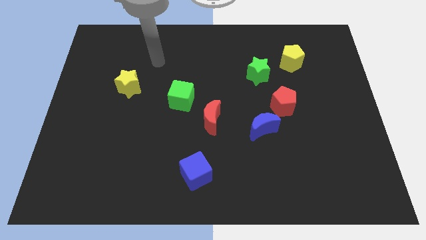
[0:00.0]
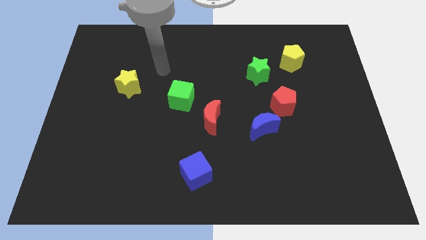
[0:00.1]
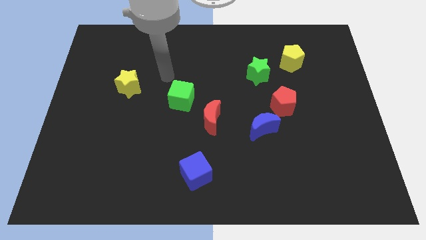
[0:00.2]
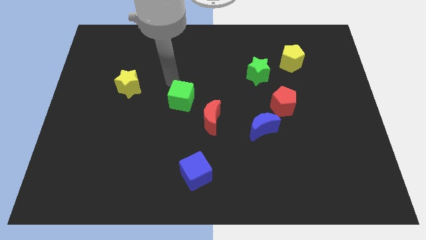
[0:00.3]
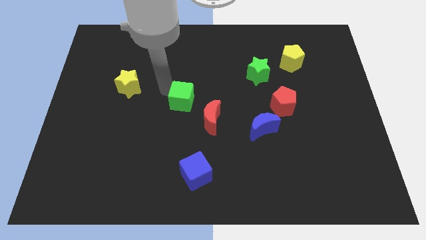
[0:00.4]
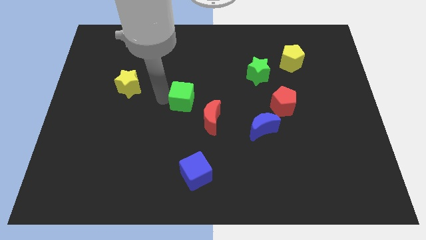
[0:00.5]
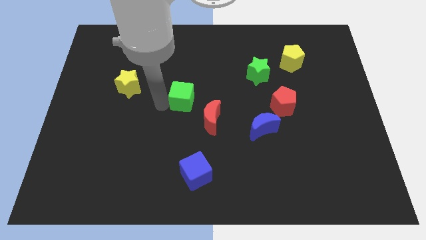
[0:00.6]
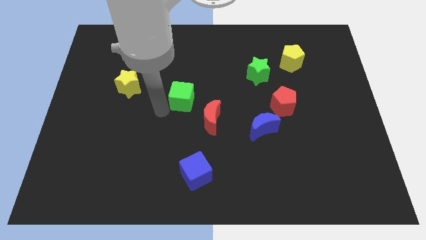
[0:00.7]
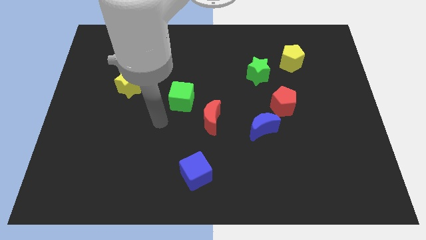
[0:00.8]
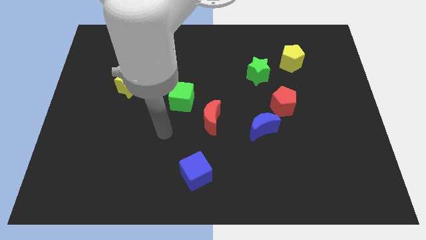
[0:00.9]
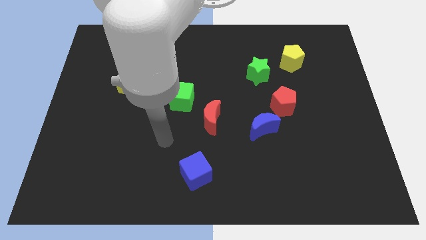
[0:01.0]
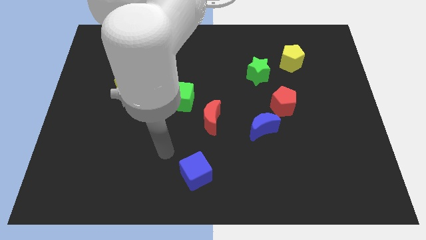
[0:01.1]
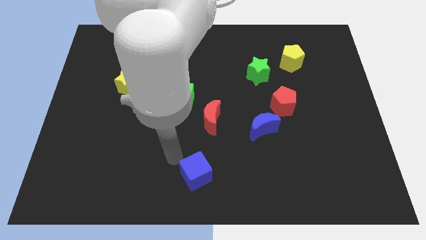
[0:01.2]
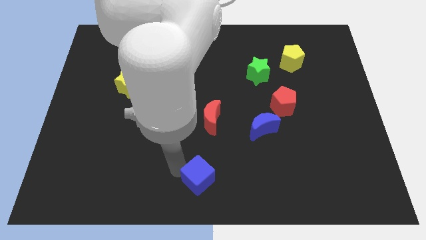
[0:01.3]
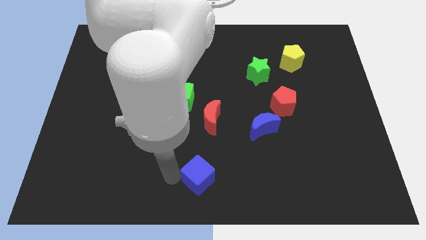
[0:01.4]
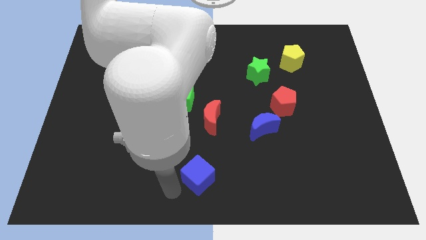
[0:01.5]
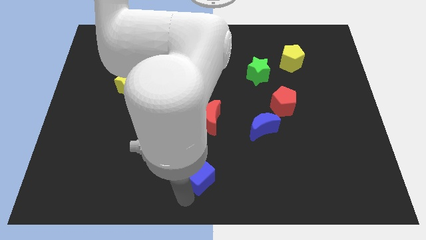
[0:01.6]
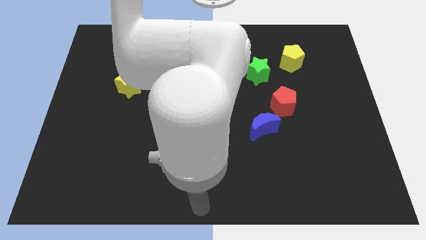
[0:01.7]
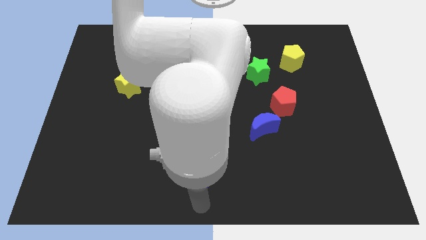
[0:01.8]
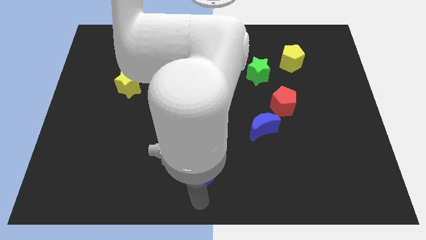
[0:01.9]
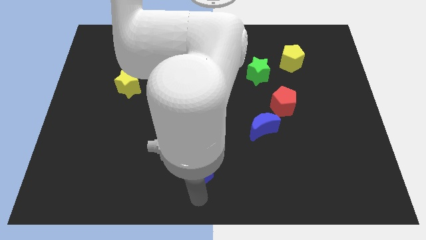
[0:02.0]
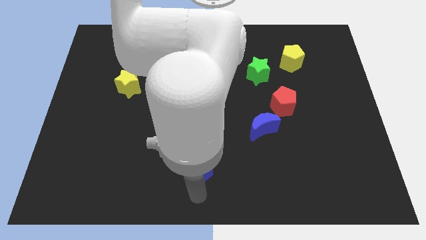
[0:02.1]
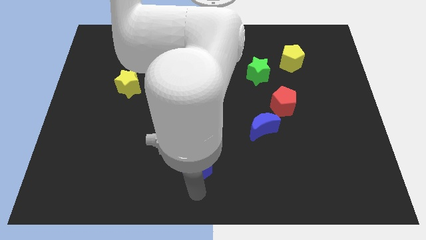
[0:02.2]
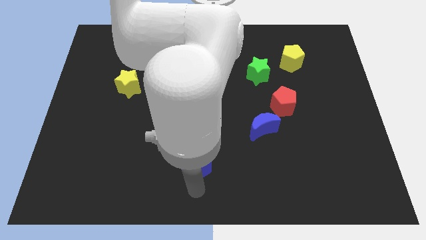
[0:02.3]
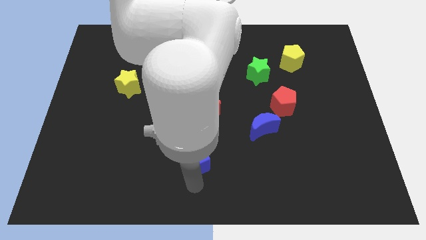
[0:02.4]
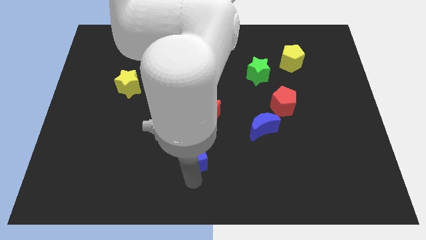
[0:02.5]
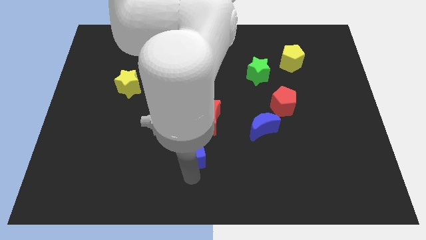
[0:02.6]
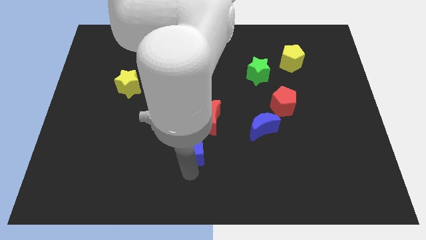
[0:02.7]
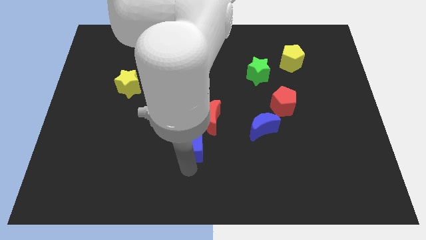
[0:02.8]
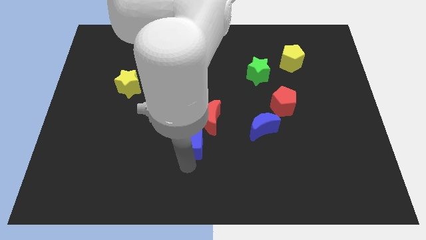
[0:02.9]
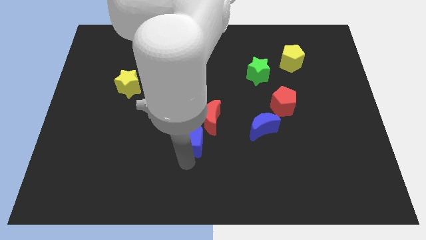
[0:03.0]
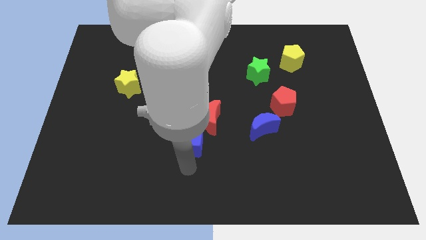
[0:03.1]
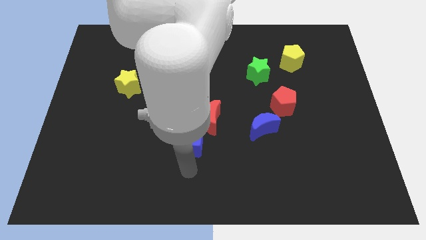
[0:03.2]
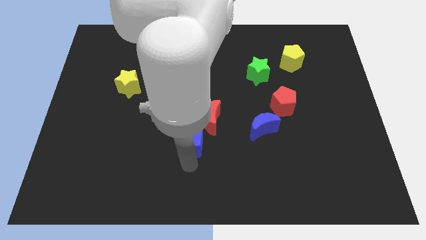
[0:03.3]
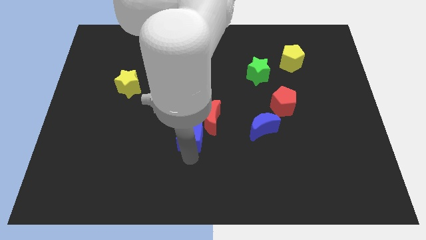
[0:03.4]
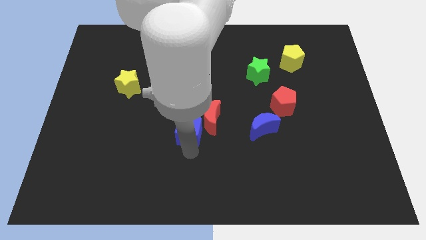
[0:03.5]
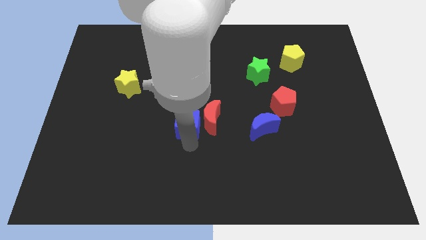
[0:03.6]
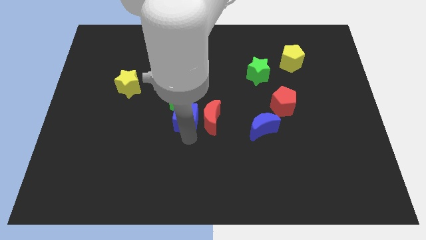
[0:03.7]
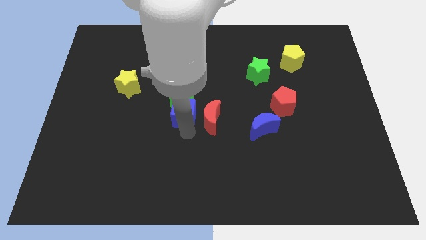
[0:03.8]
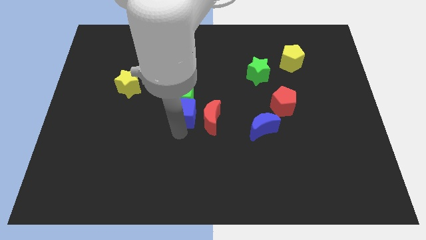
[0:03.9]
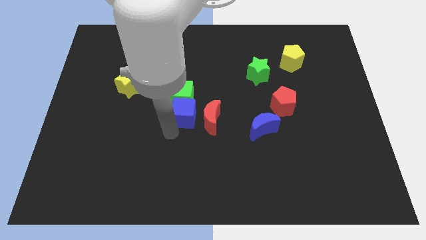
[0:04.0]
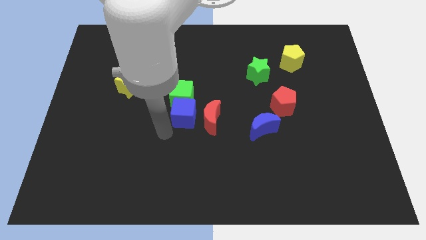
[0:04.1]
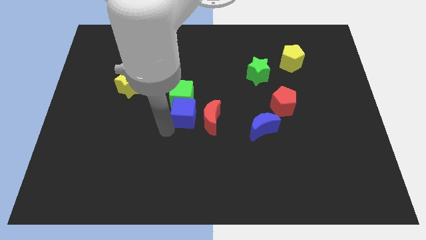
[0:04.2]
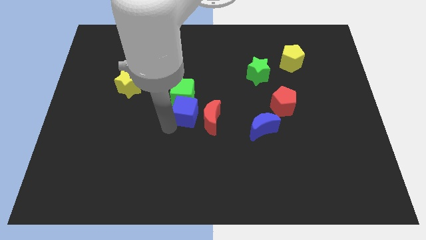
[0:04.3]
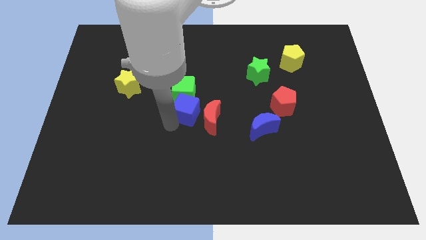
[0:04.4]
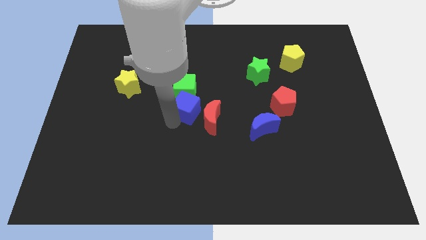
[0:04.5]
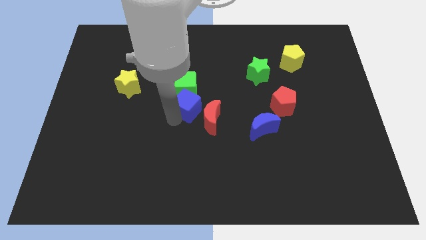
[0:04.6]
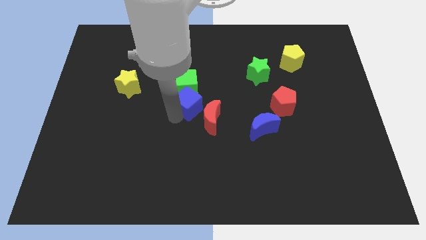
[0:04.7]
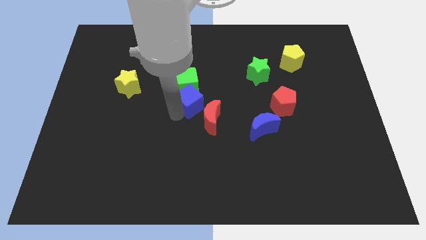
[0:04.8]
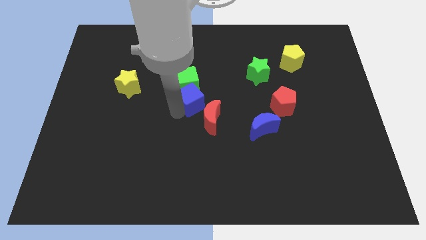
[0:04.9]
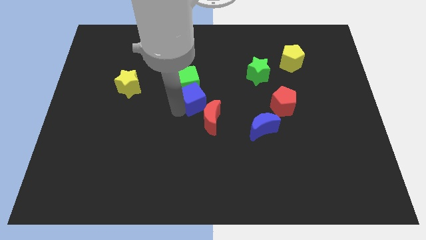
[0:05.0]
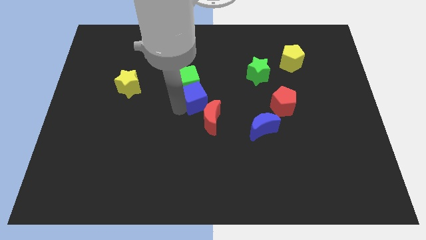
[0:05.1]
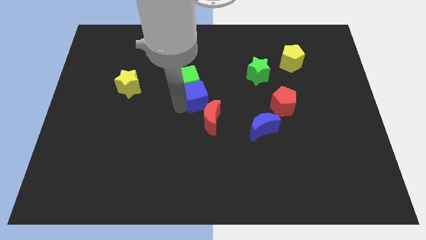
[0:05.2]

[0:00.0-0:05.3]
push the blue cube upwards

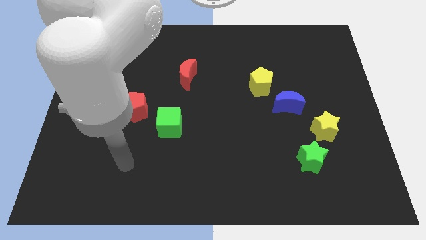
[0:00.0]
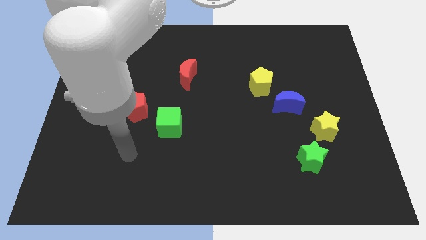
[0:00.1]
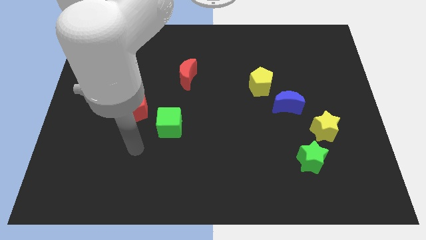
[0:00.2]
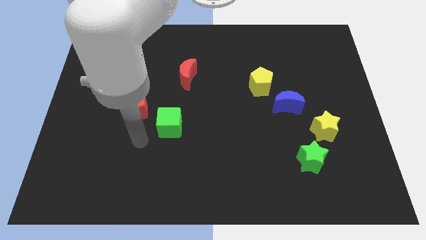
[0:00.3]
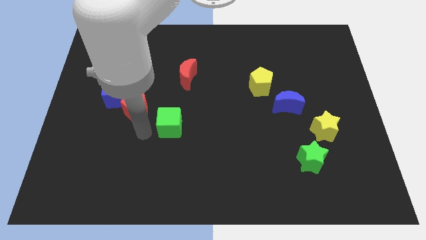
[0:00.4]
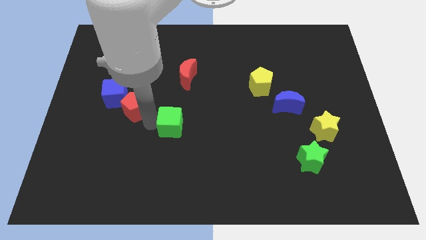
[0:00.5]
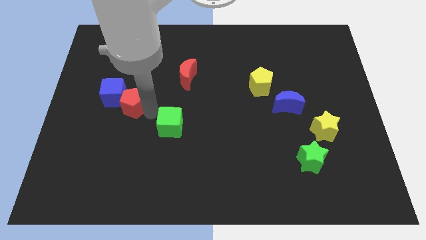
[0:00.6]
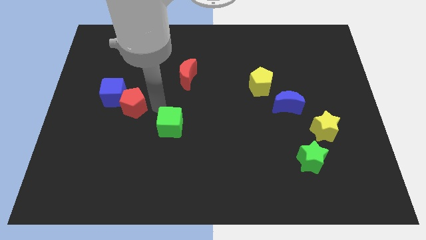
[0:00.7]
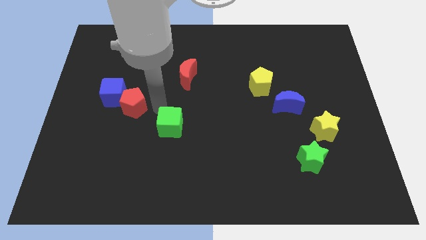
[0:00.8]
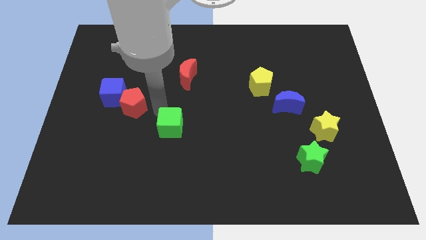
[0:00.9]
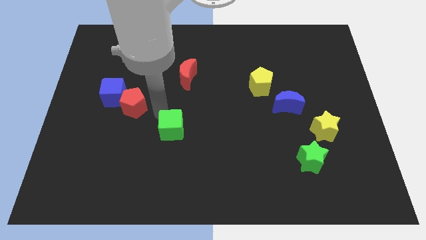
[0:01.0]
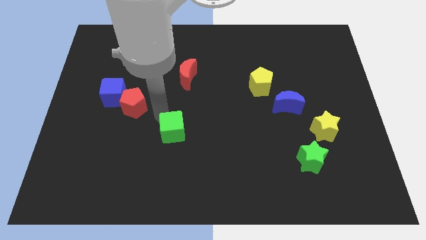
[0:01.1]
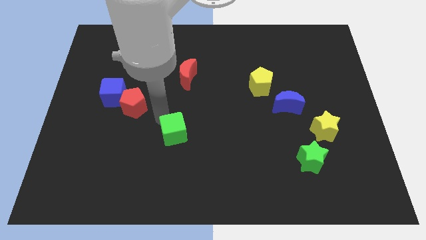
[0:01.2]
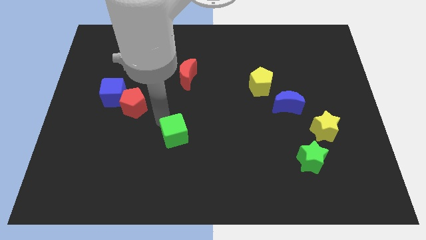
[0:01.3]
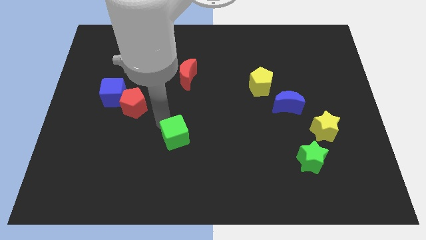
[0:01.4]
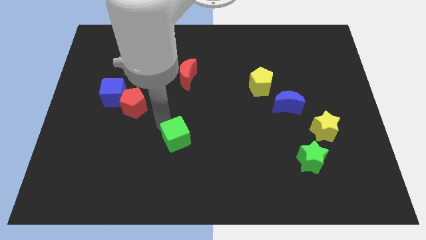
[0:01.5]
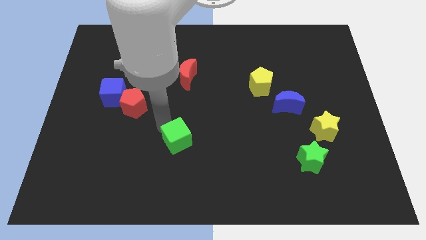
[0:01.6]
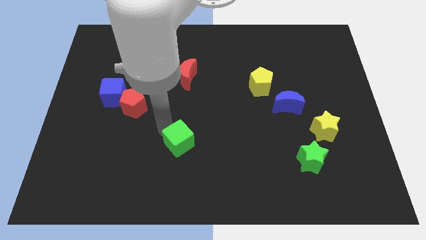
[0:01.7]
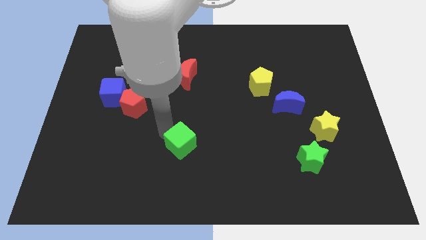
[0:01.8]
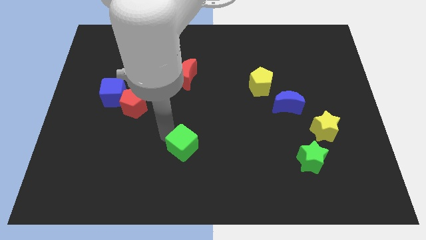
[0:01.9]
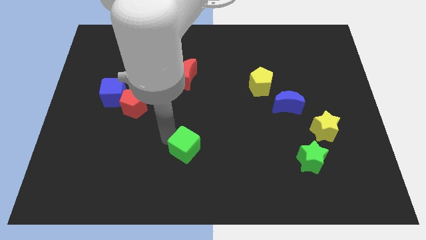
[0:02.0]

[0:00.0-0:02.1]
slide the green cube a little downwards and to the right

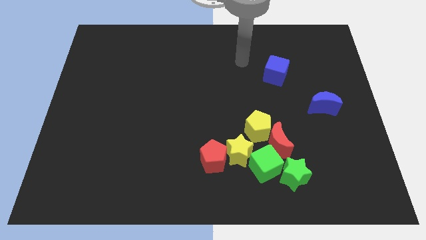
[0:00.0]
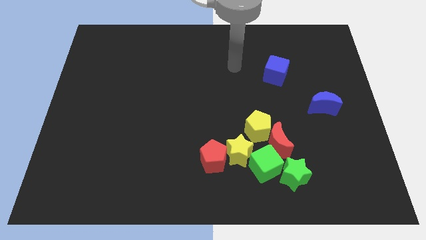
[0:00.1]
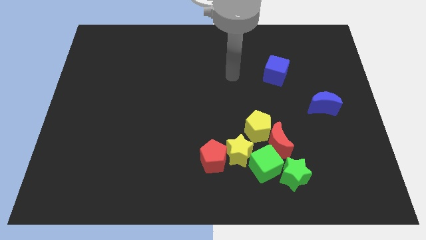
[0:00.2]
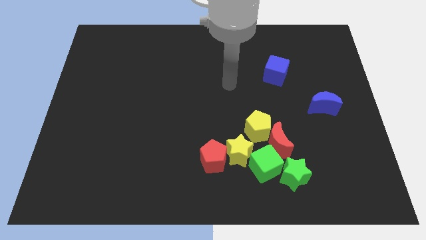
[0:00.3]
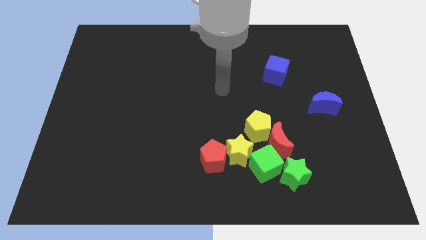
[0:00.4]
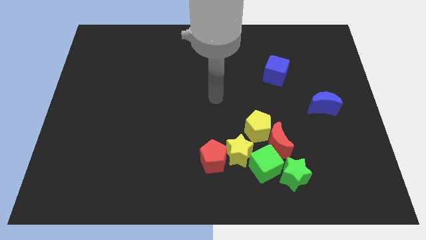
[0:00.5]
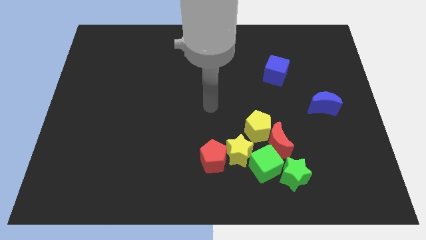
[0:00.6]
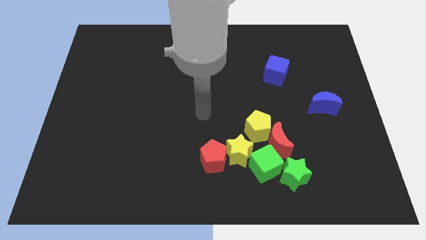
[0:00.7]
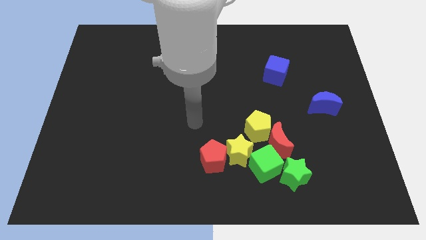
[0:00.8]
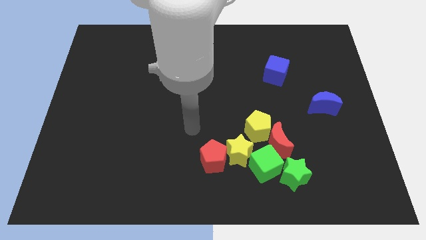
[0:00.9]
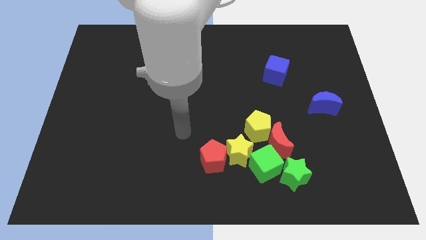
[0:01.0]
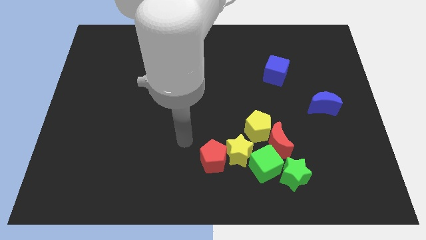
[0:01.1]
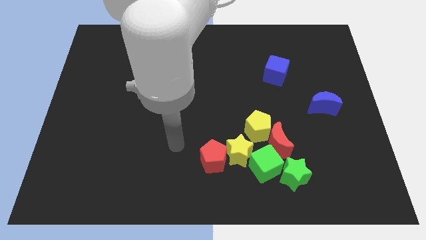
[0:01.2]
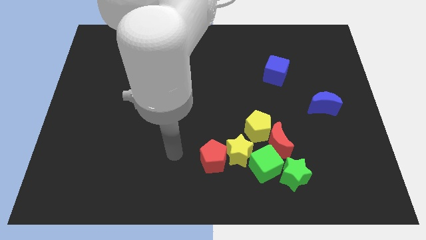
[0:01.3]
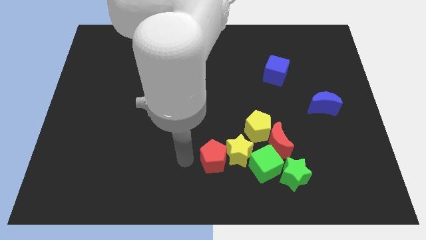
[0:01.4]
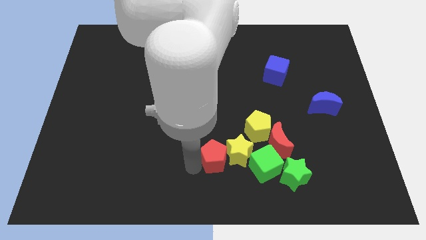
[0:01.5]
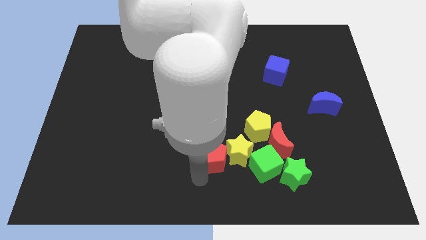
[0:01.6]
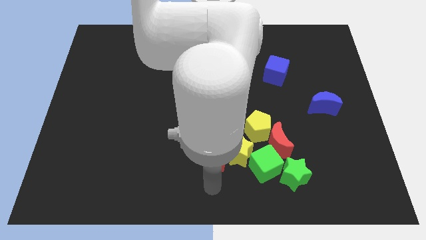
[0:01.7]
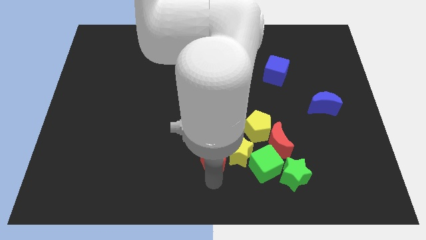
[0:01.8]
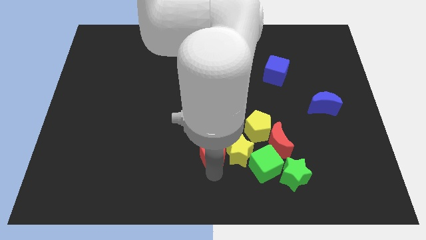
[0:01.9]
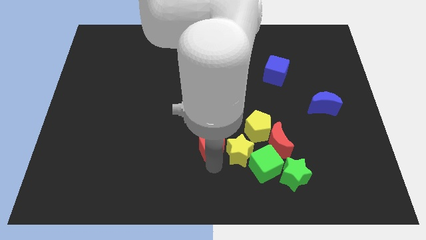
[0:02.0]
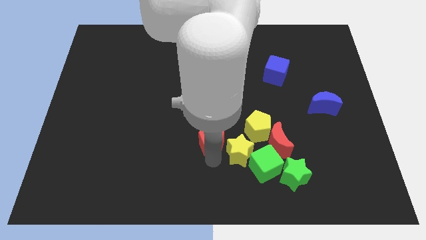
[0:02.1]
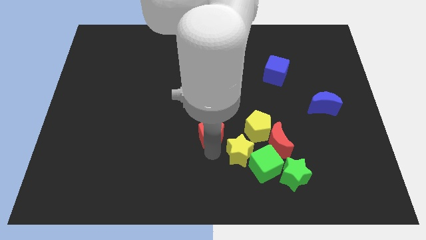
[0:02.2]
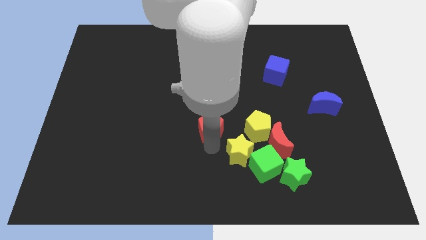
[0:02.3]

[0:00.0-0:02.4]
slightly move the red pentagon upwards
